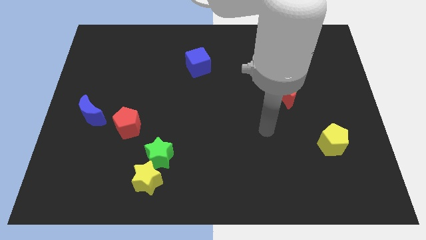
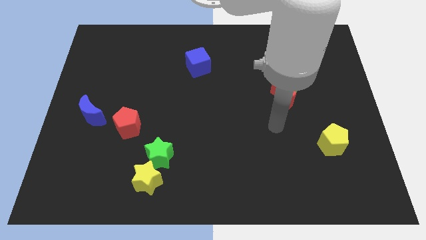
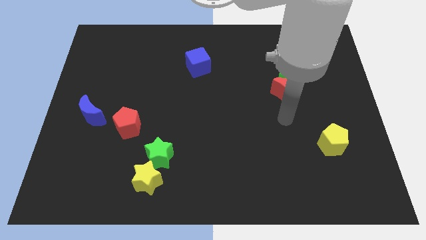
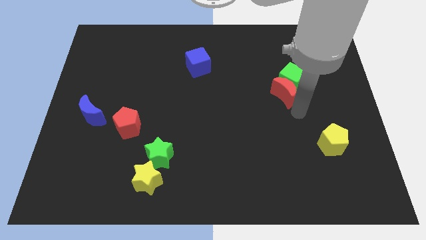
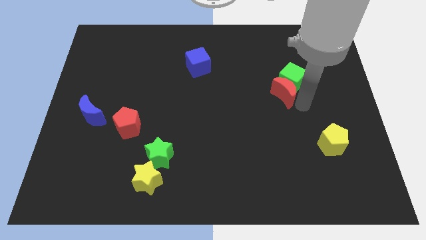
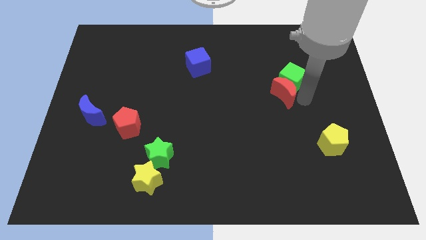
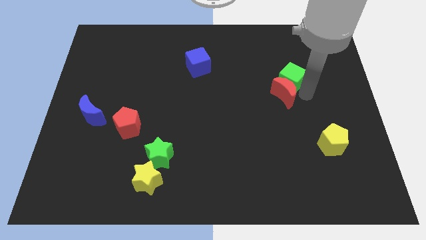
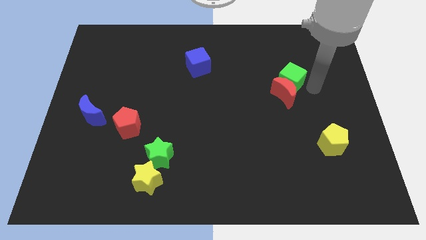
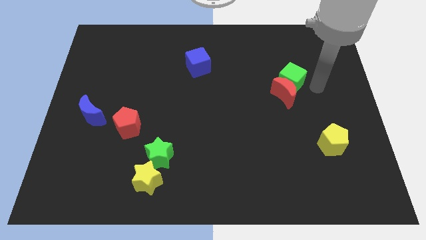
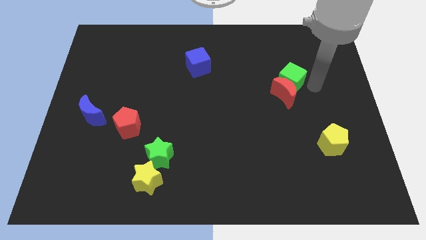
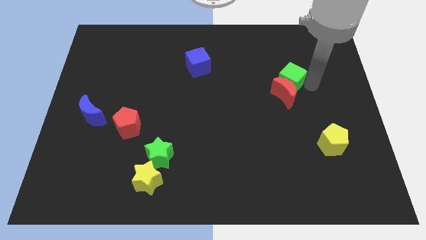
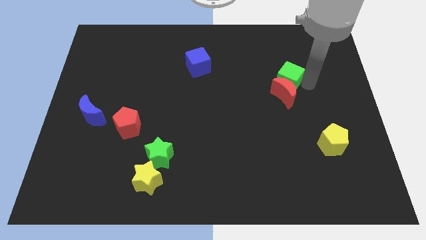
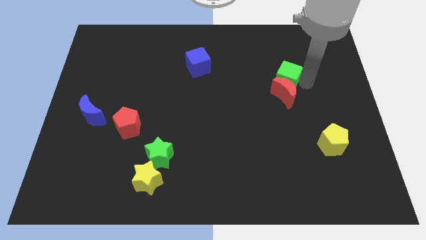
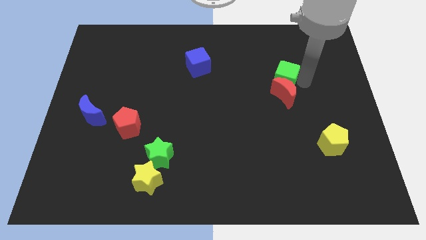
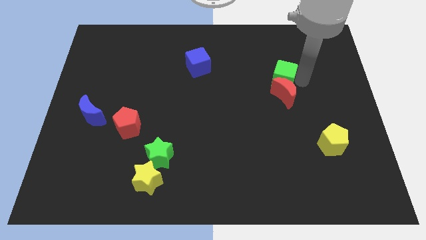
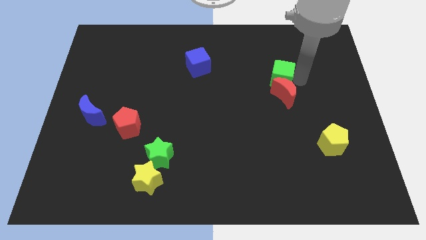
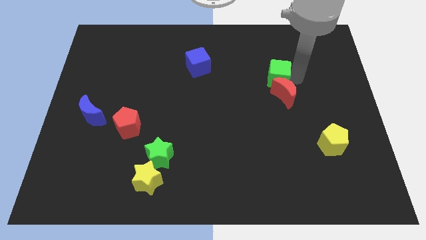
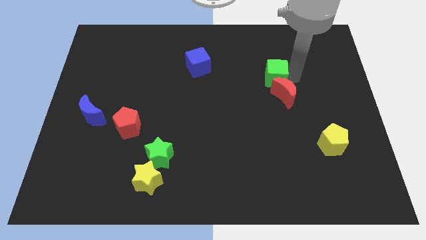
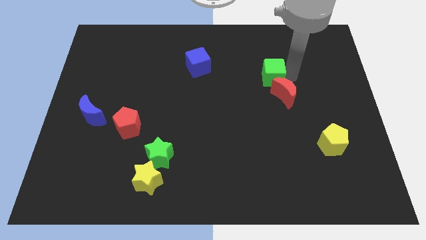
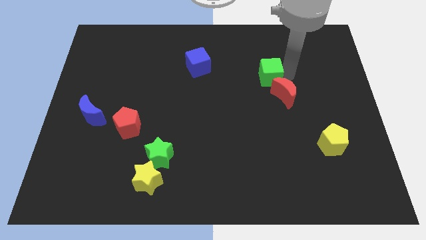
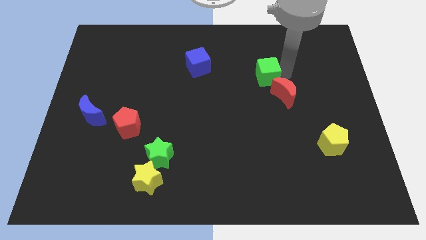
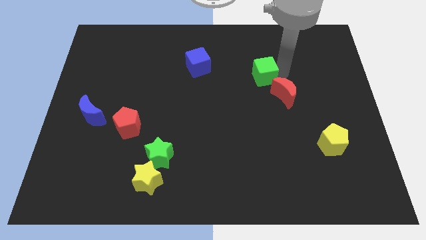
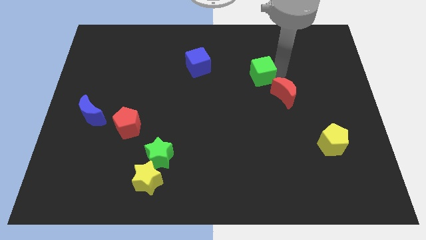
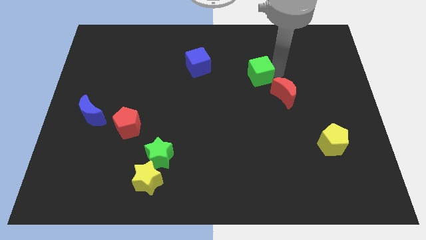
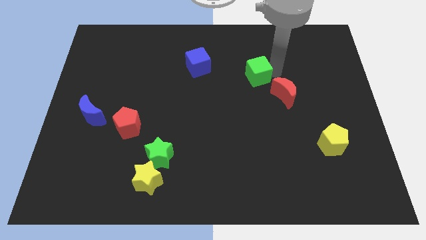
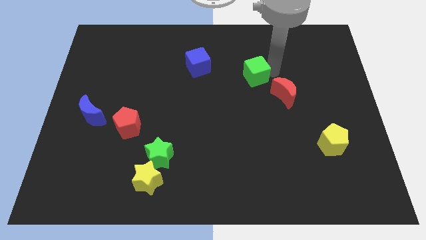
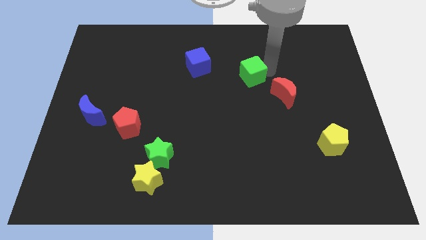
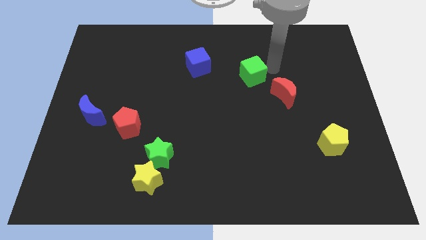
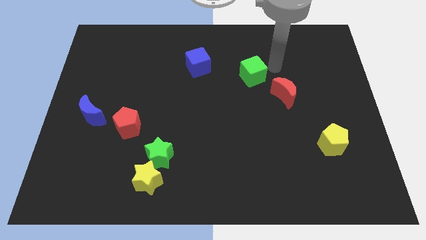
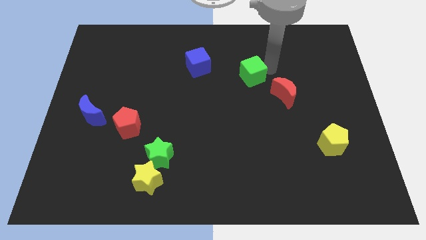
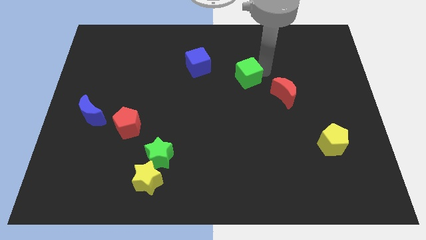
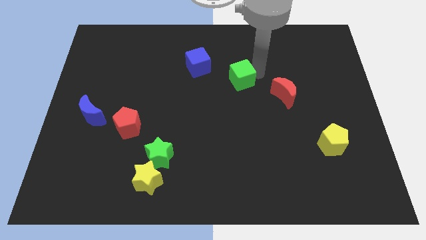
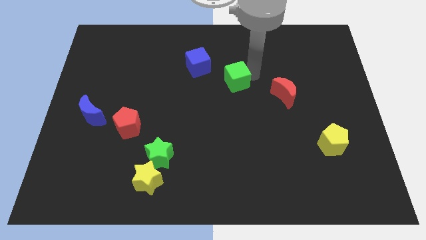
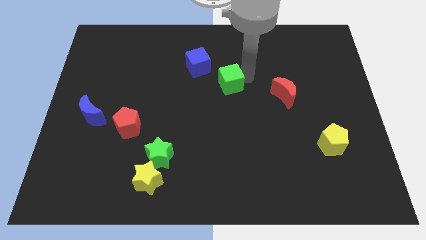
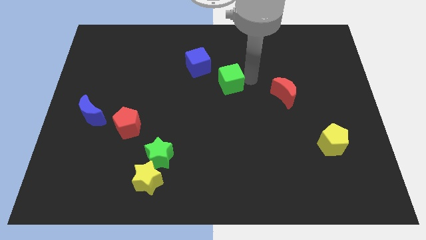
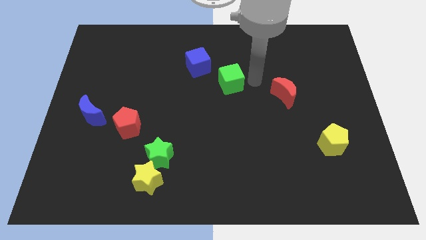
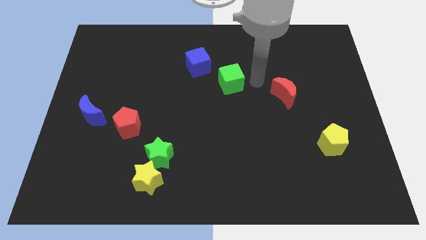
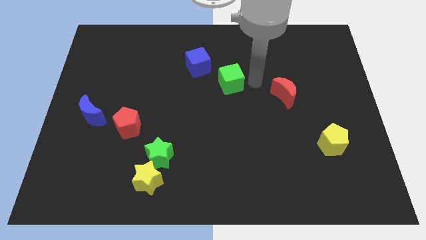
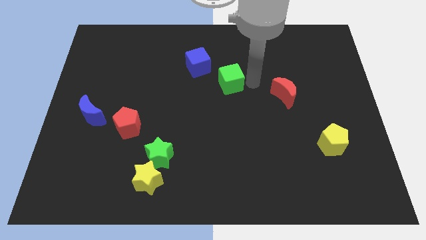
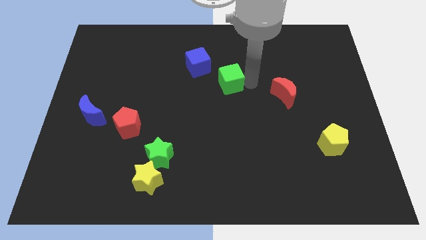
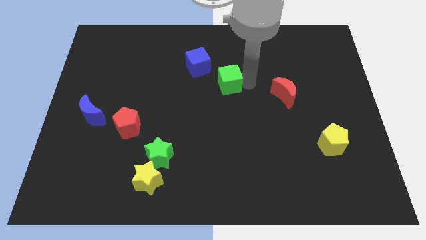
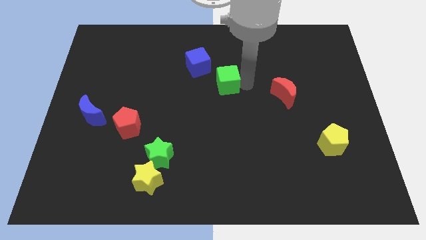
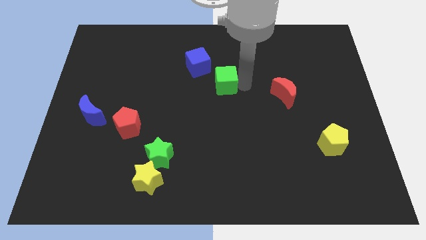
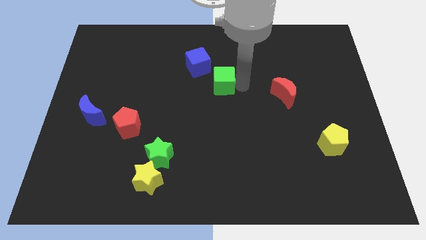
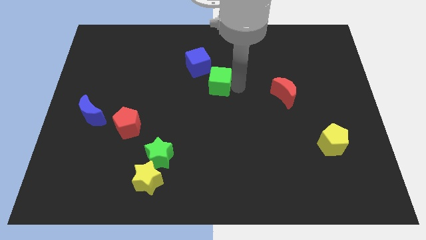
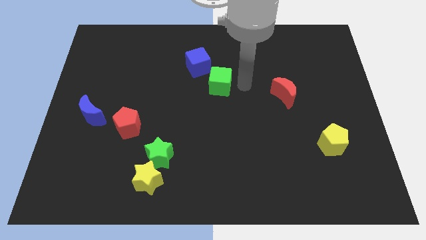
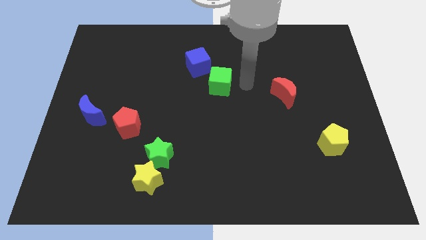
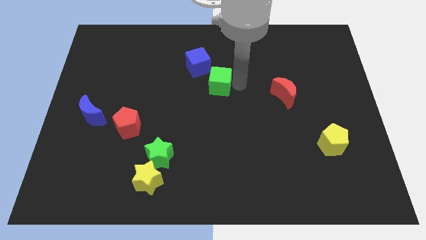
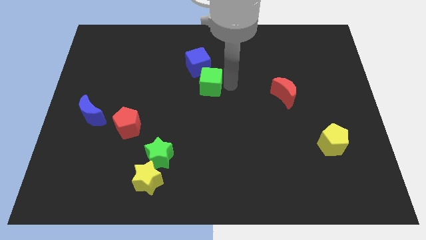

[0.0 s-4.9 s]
push the green cube to the left

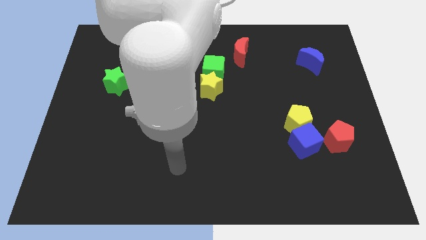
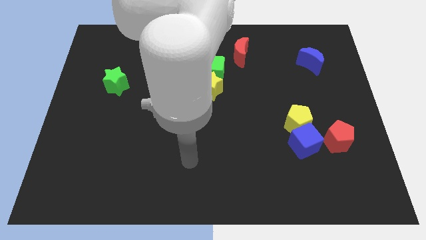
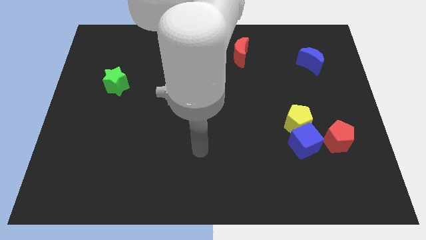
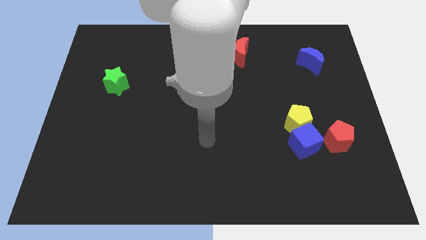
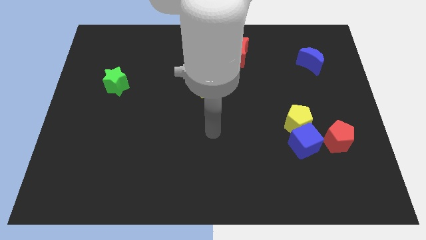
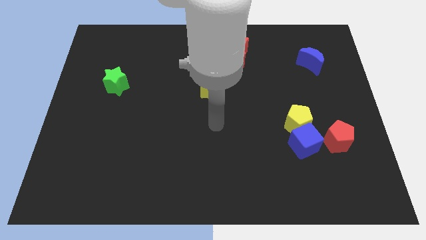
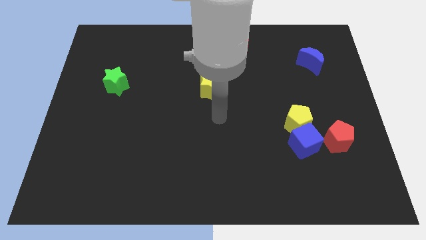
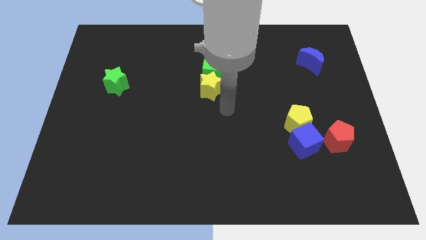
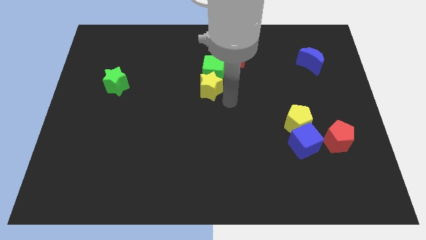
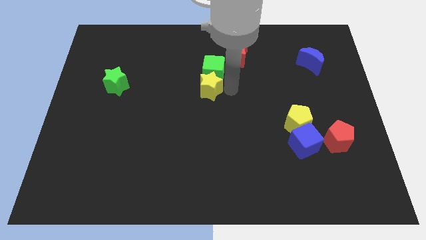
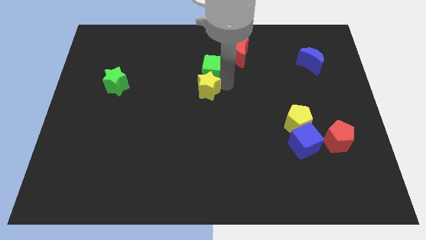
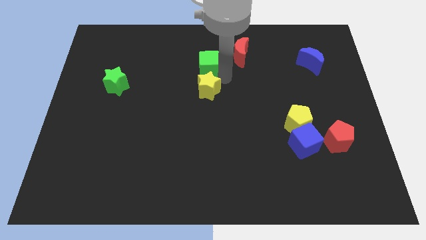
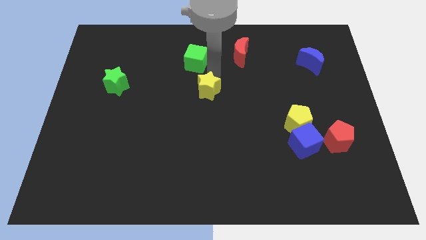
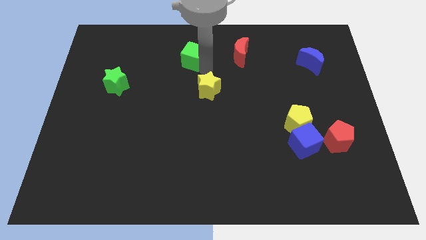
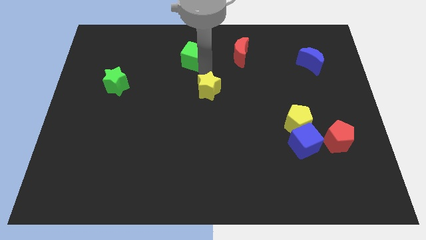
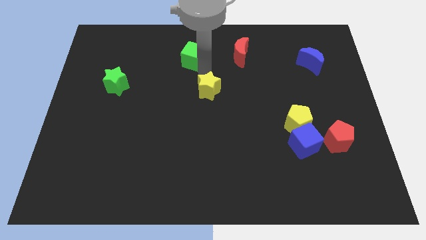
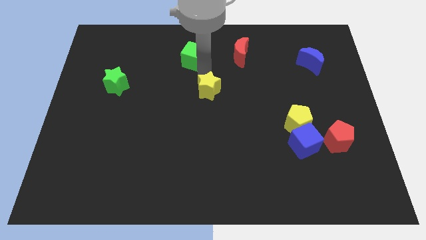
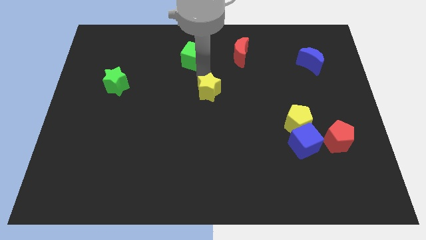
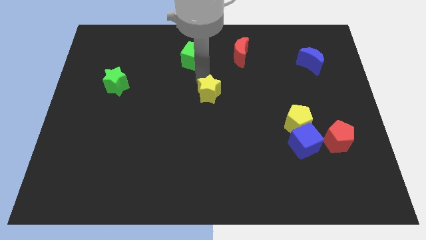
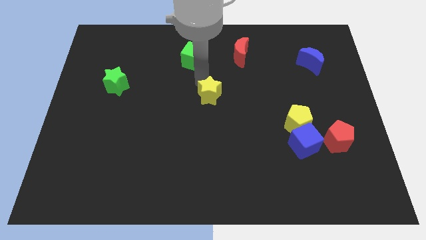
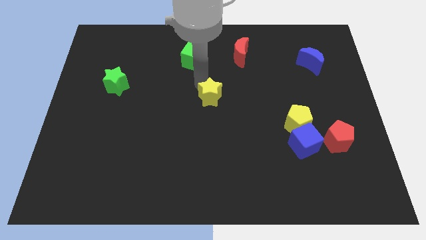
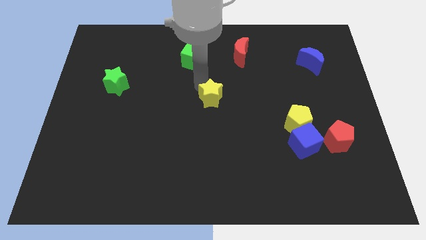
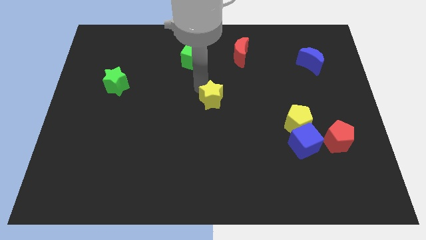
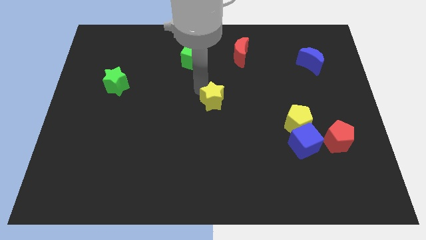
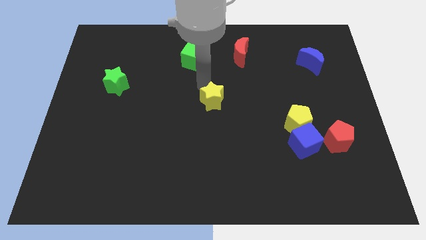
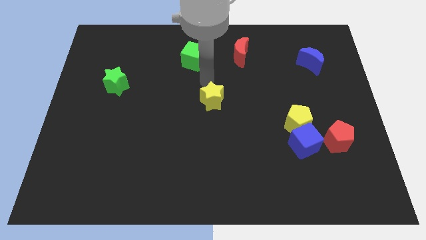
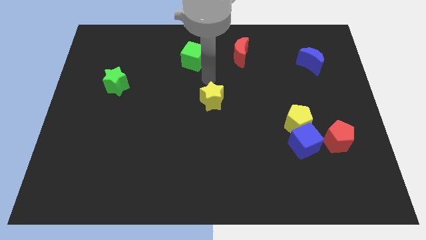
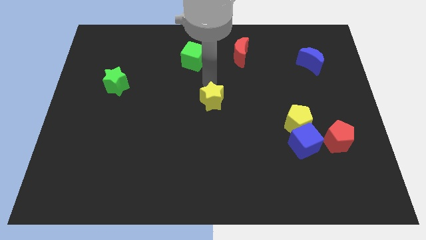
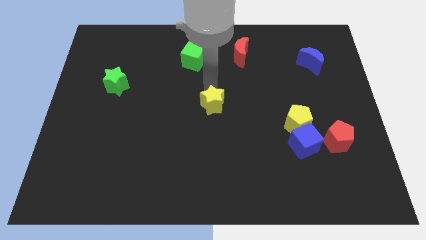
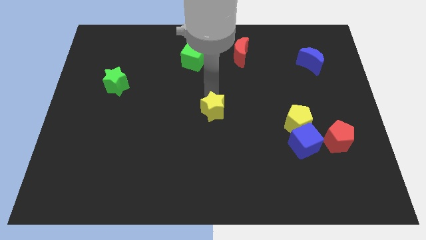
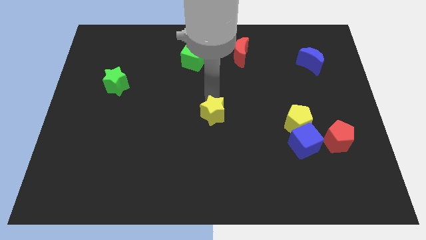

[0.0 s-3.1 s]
slightly move the yellow star down

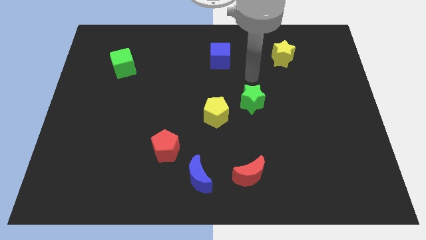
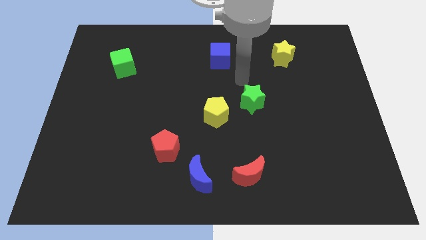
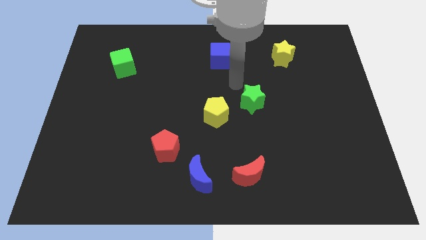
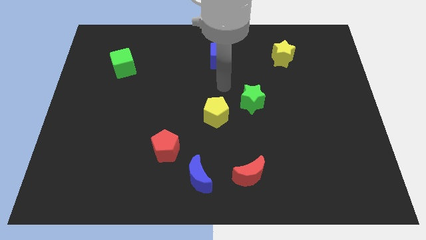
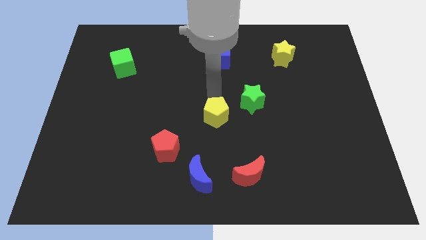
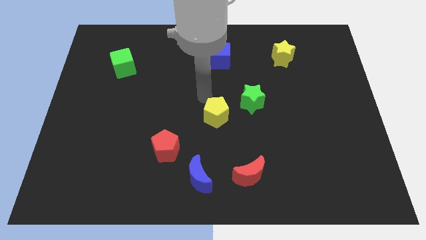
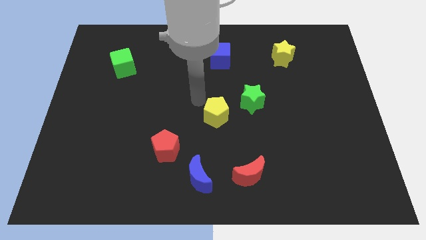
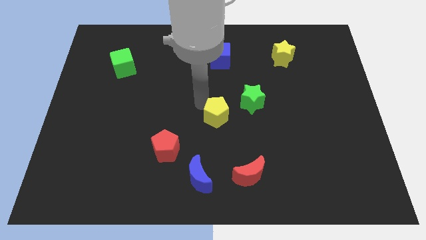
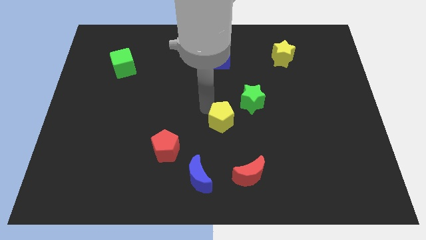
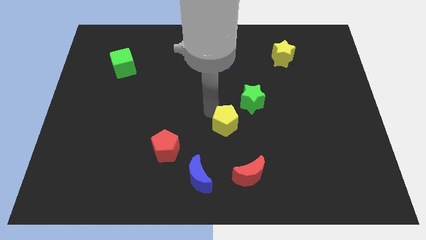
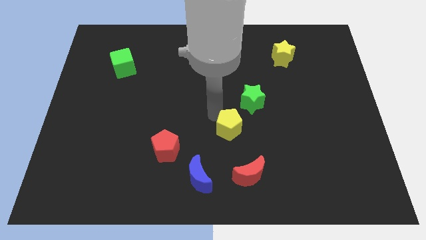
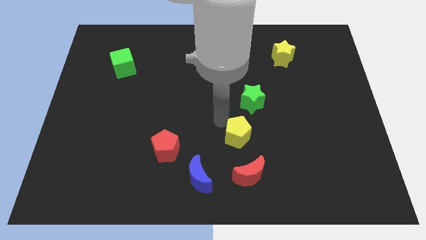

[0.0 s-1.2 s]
push the yellow pentagon down and then right somewhat
